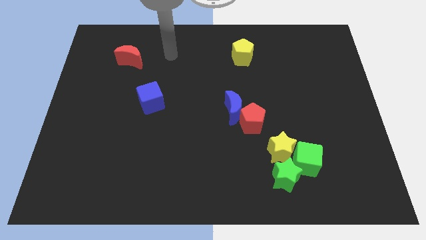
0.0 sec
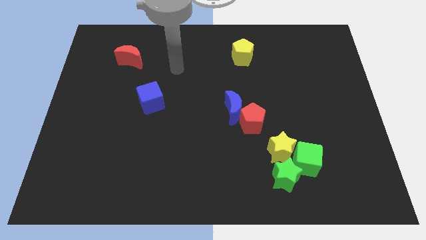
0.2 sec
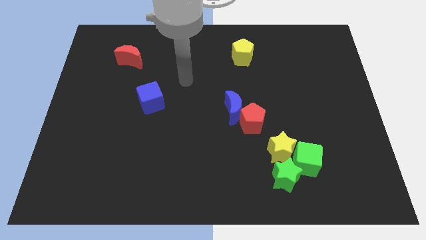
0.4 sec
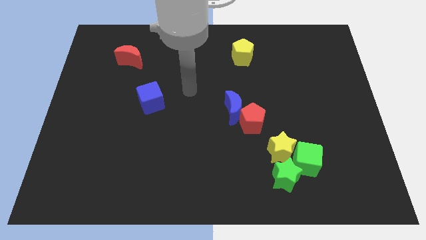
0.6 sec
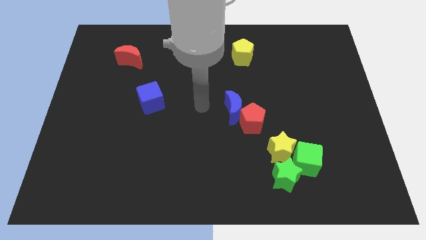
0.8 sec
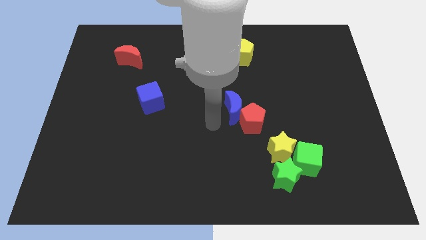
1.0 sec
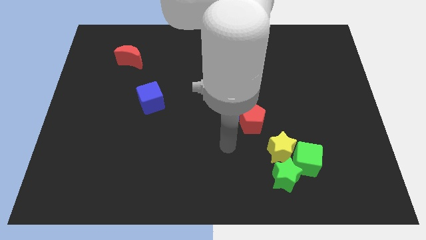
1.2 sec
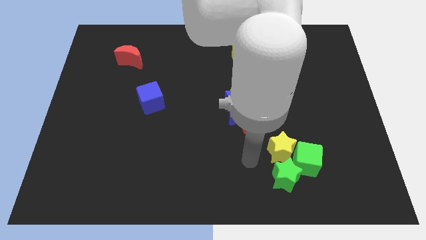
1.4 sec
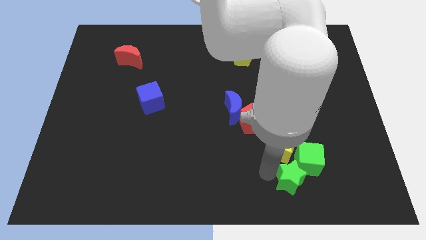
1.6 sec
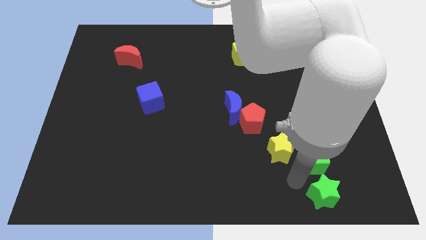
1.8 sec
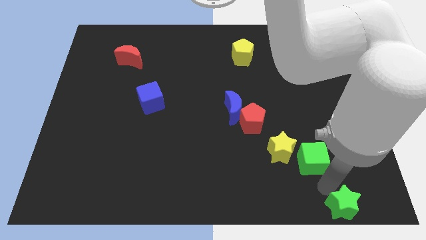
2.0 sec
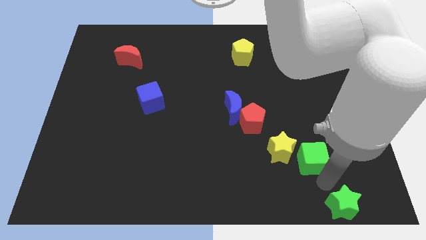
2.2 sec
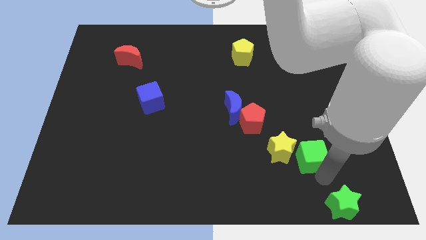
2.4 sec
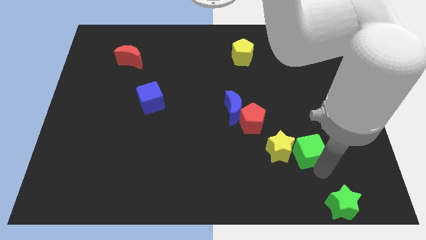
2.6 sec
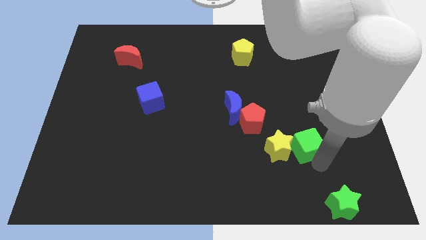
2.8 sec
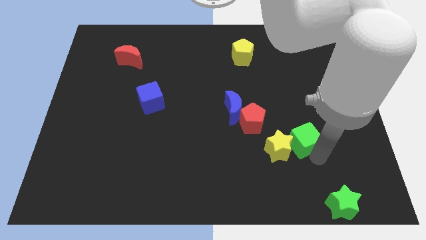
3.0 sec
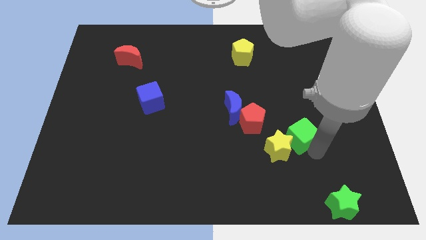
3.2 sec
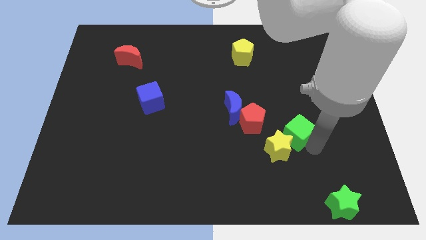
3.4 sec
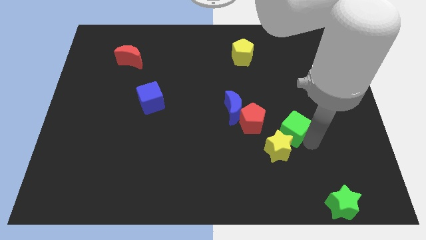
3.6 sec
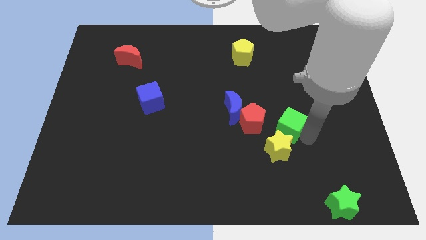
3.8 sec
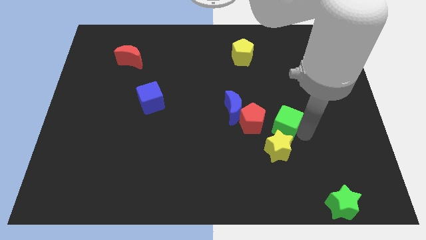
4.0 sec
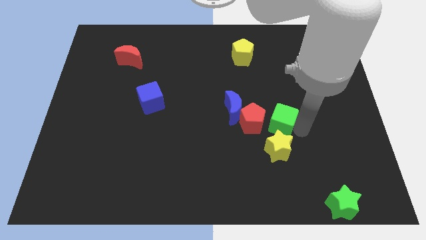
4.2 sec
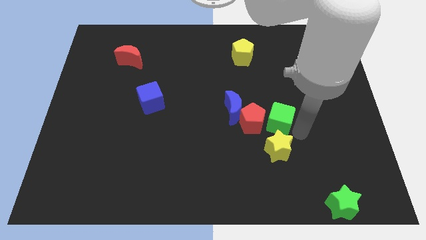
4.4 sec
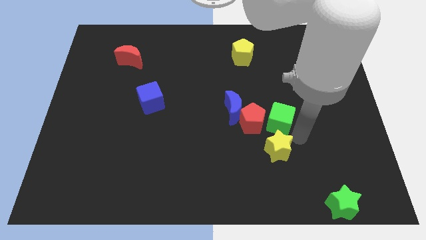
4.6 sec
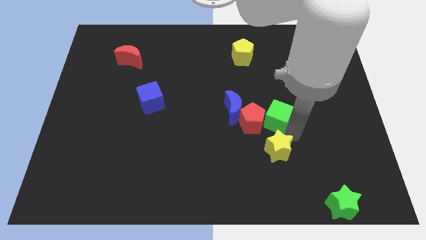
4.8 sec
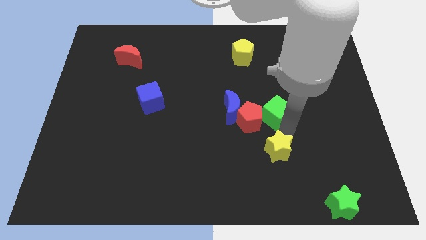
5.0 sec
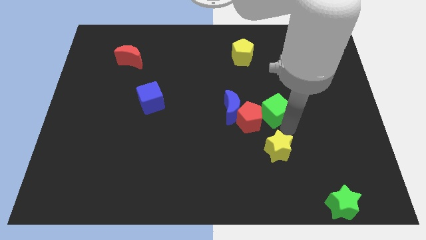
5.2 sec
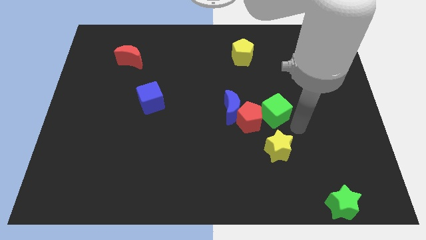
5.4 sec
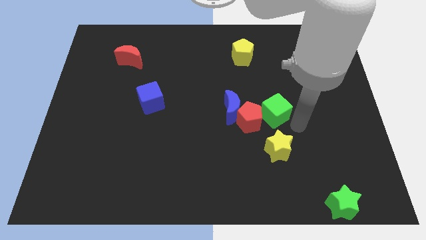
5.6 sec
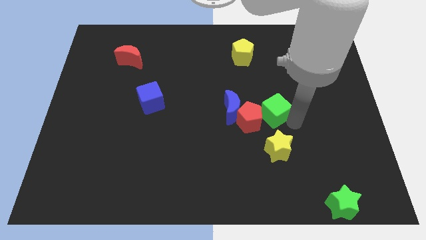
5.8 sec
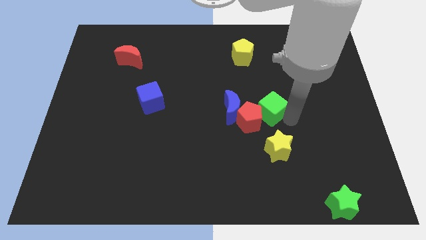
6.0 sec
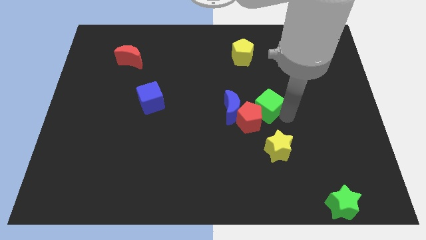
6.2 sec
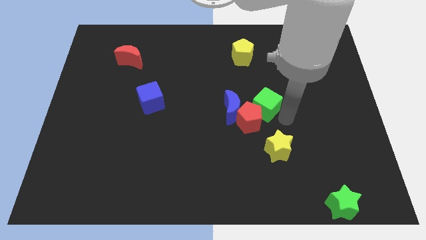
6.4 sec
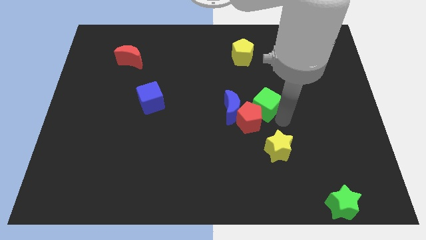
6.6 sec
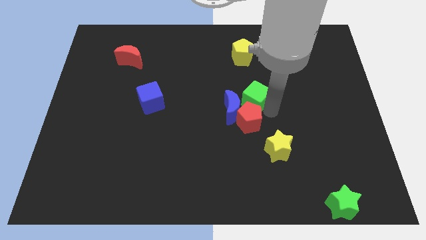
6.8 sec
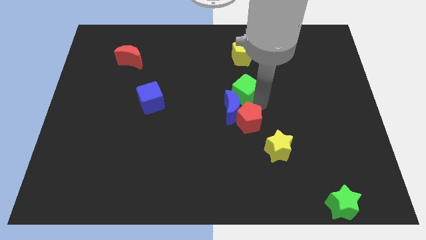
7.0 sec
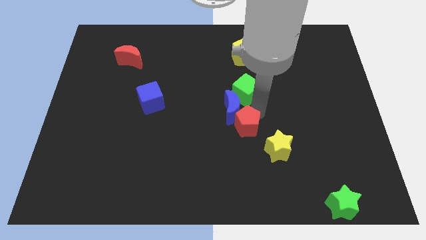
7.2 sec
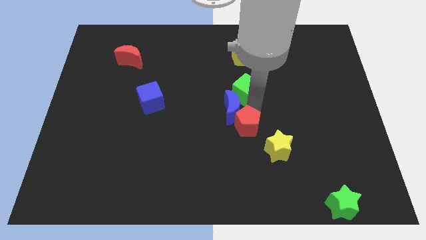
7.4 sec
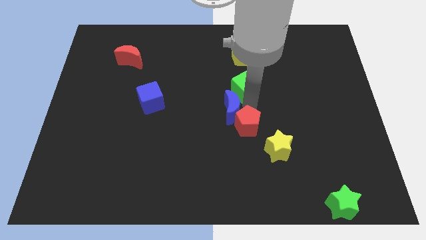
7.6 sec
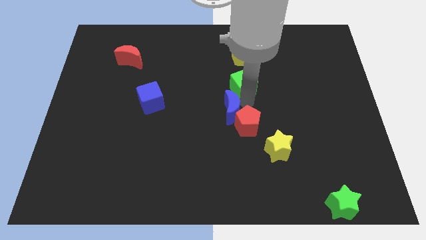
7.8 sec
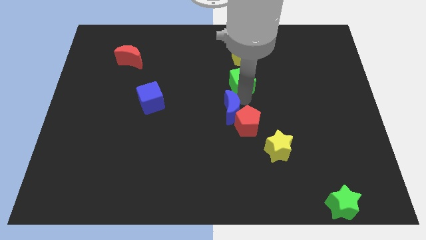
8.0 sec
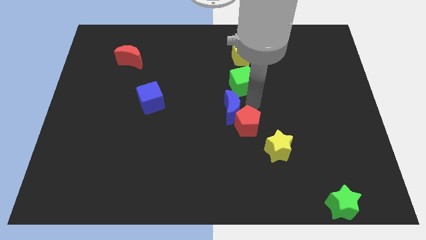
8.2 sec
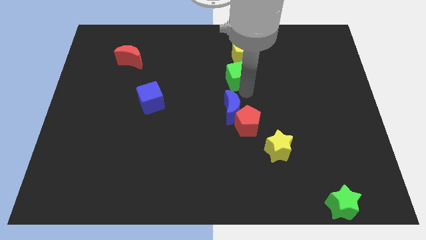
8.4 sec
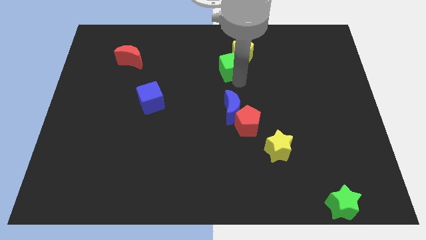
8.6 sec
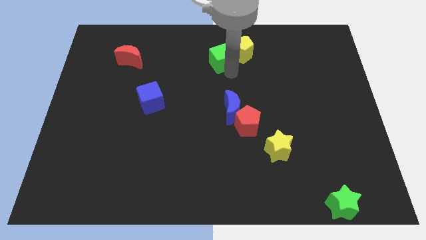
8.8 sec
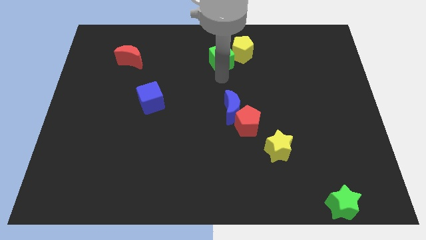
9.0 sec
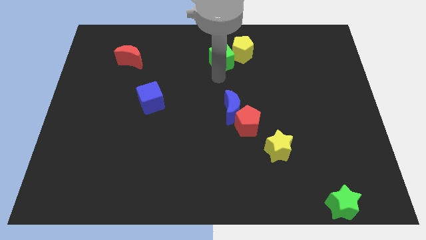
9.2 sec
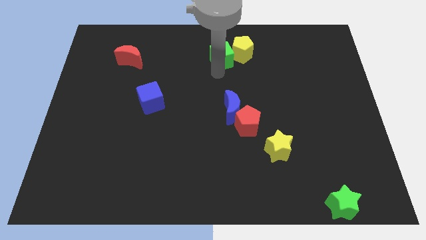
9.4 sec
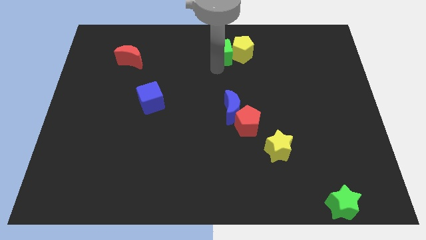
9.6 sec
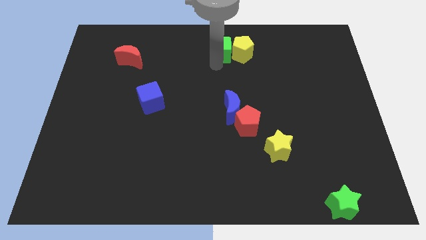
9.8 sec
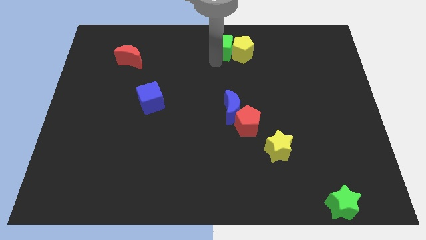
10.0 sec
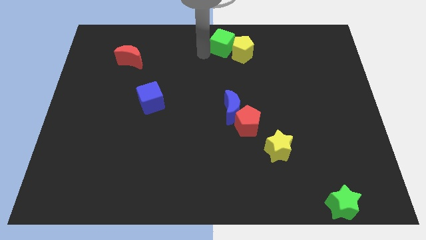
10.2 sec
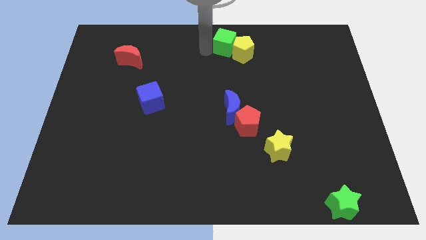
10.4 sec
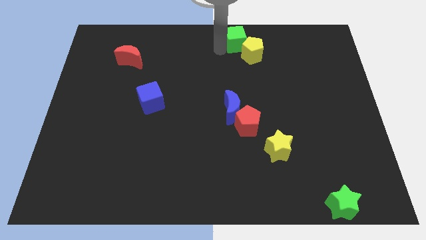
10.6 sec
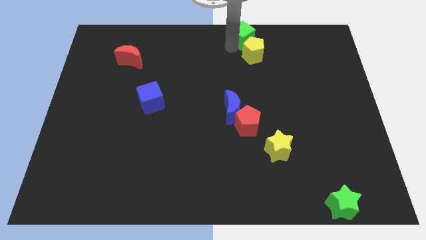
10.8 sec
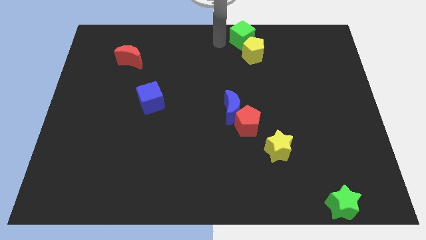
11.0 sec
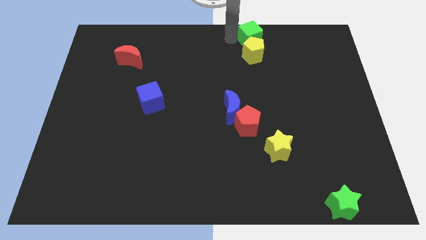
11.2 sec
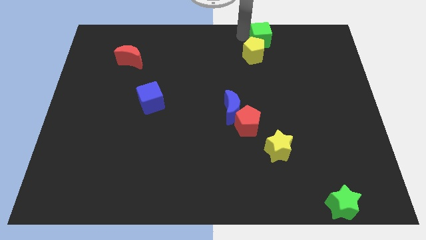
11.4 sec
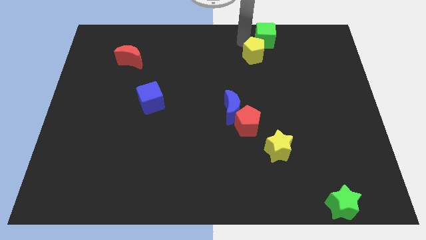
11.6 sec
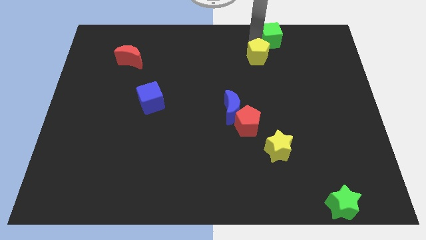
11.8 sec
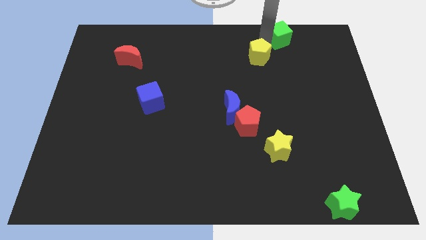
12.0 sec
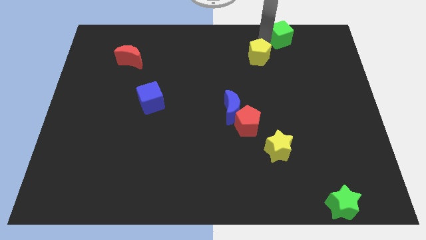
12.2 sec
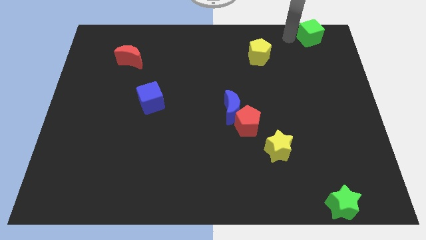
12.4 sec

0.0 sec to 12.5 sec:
put the green cube to the top right
